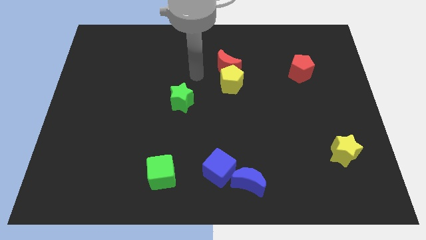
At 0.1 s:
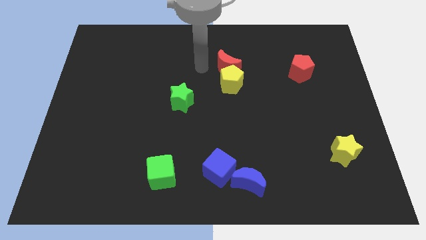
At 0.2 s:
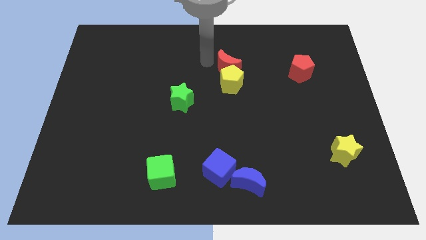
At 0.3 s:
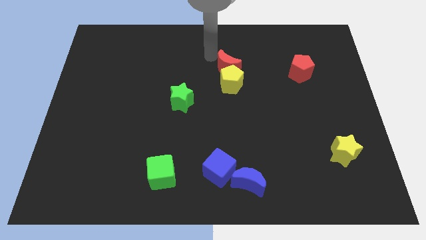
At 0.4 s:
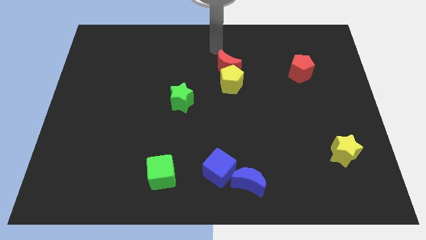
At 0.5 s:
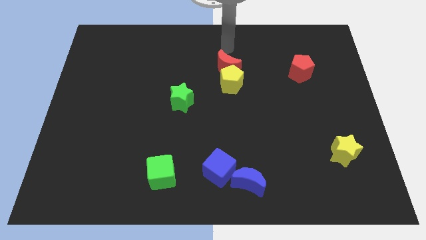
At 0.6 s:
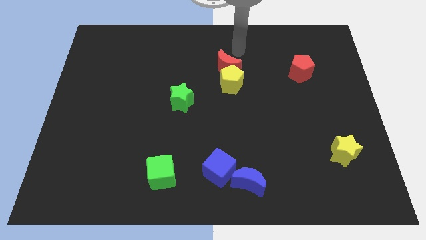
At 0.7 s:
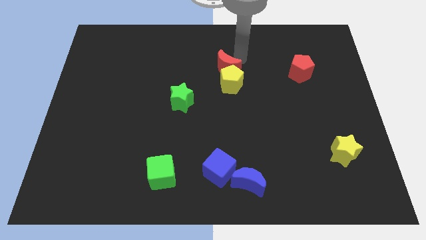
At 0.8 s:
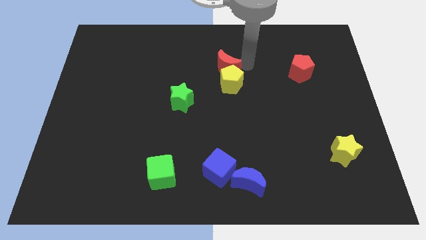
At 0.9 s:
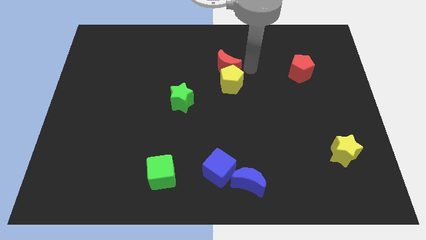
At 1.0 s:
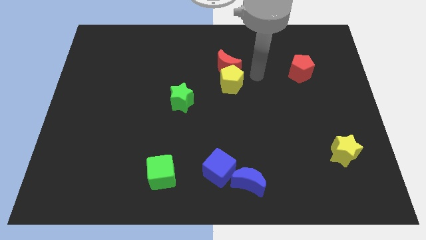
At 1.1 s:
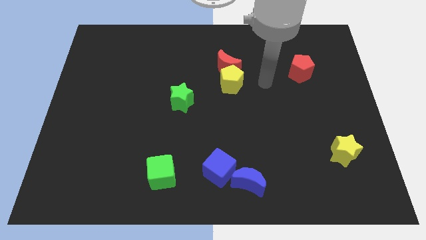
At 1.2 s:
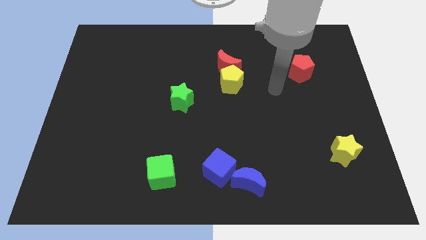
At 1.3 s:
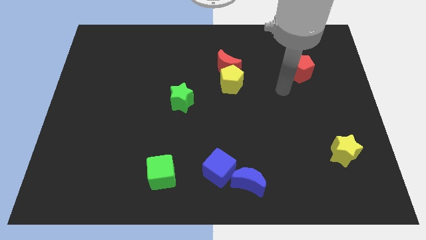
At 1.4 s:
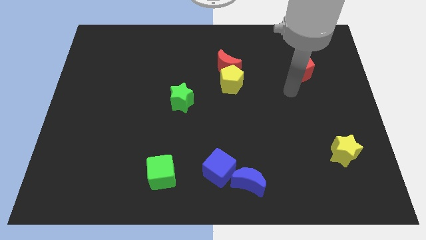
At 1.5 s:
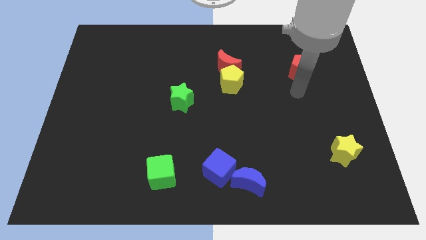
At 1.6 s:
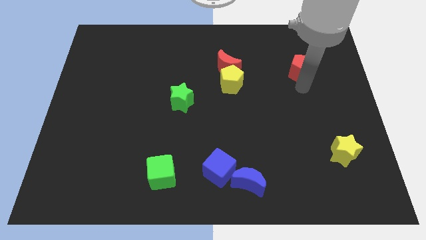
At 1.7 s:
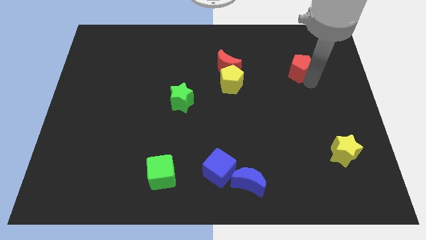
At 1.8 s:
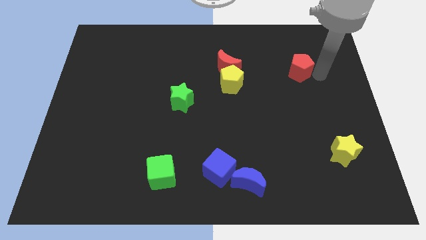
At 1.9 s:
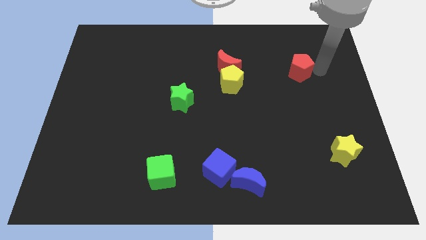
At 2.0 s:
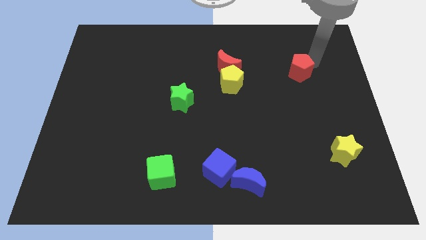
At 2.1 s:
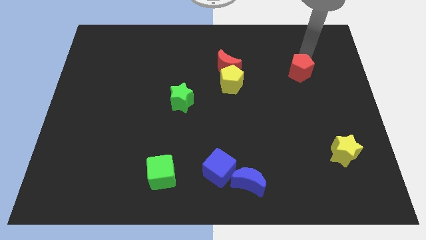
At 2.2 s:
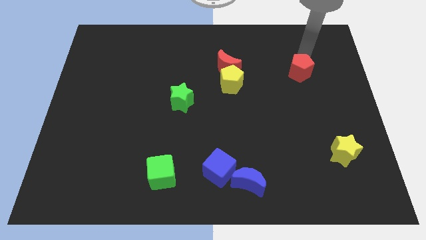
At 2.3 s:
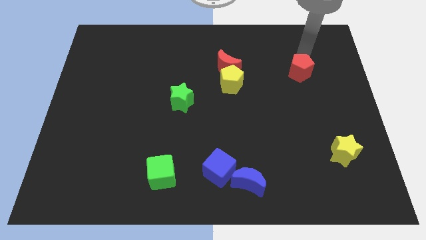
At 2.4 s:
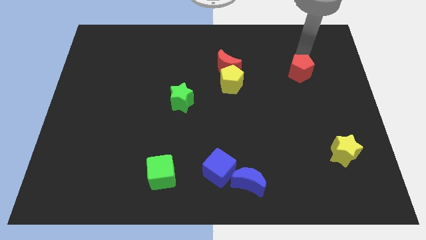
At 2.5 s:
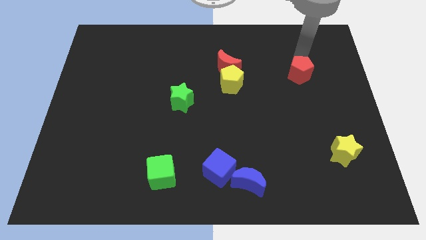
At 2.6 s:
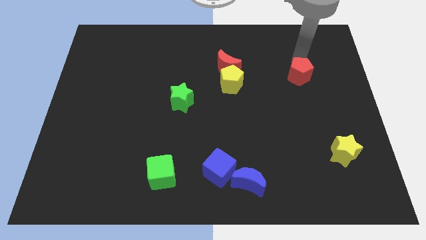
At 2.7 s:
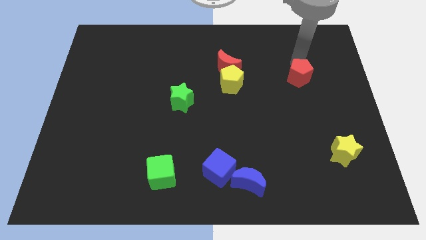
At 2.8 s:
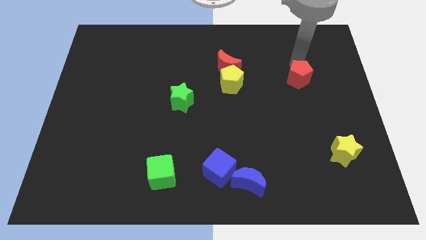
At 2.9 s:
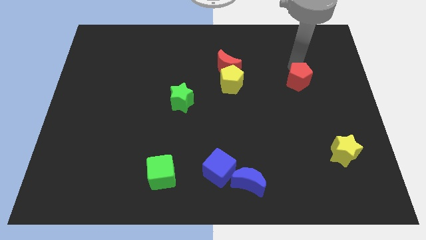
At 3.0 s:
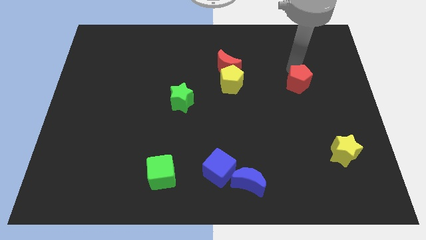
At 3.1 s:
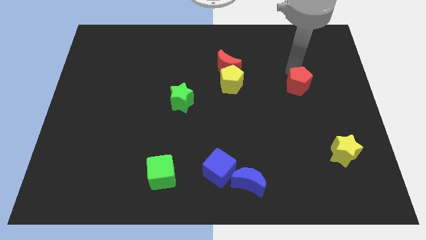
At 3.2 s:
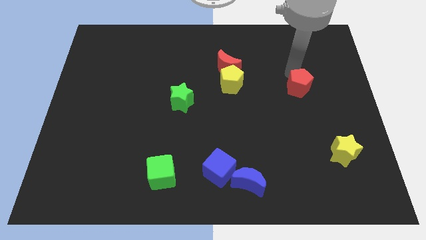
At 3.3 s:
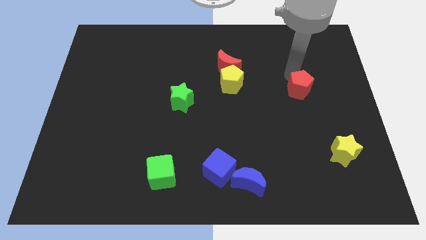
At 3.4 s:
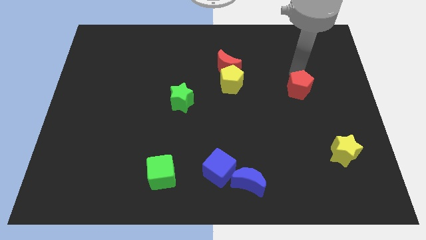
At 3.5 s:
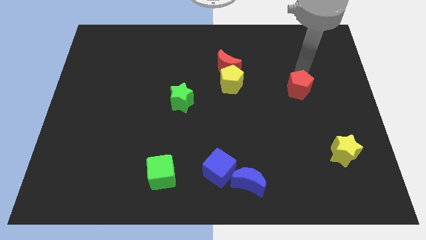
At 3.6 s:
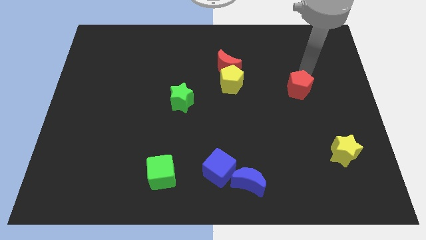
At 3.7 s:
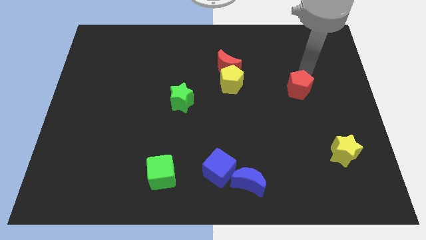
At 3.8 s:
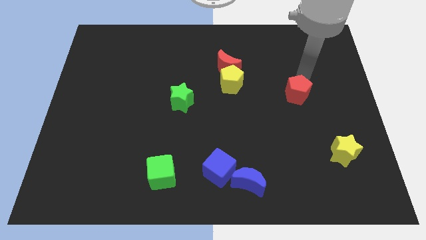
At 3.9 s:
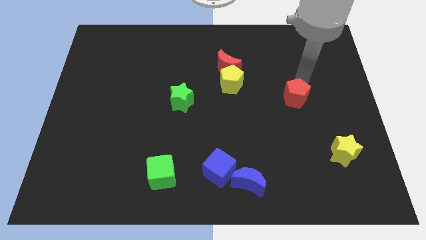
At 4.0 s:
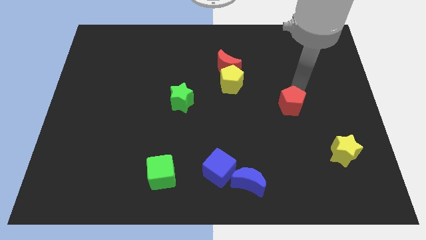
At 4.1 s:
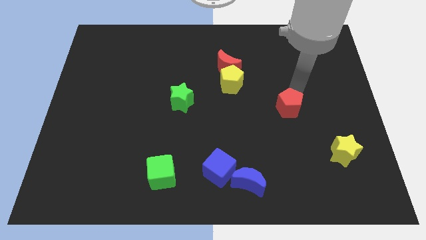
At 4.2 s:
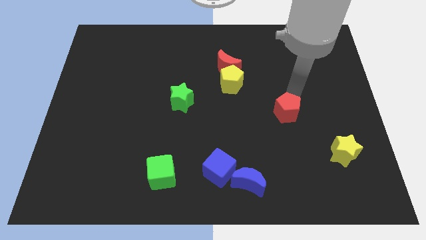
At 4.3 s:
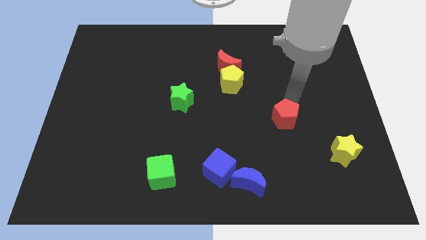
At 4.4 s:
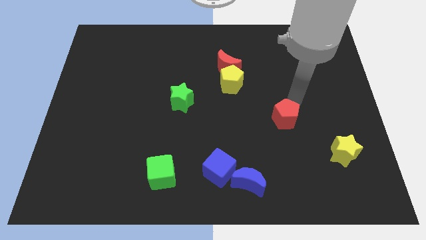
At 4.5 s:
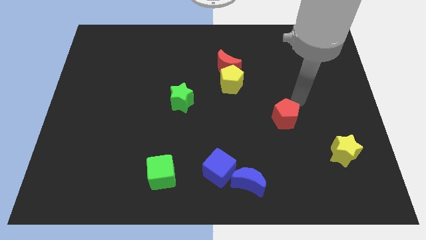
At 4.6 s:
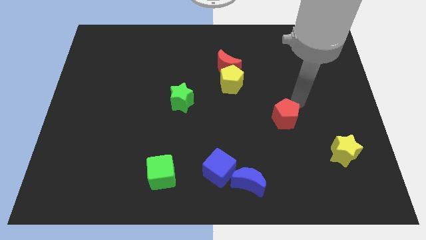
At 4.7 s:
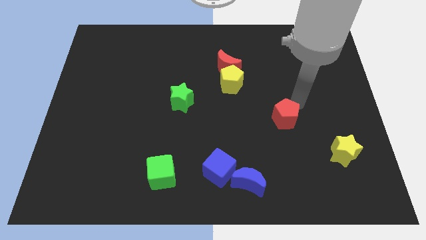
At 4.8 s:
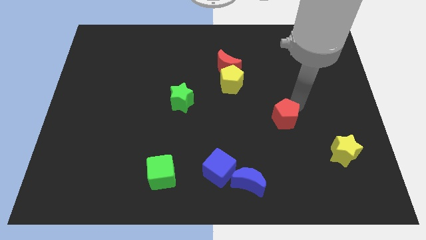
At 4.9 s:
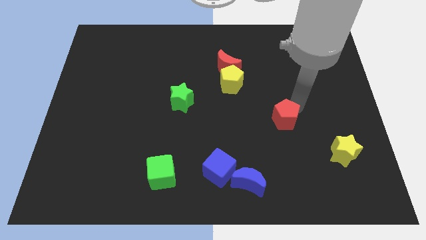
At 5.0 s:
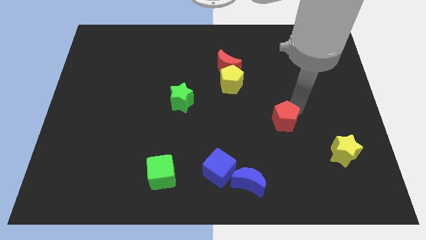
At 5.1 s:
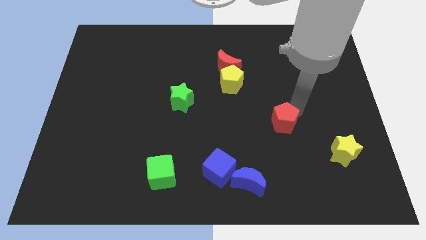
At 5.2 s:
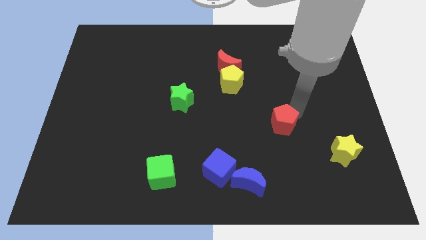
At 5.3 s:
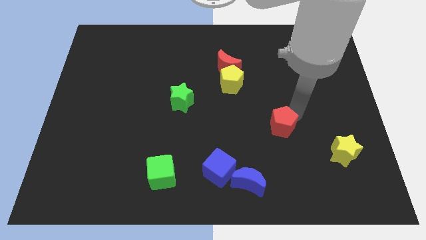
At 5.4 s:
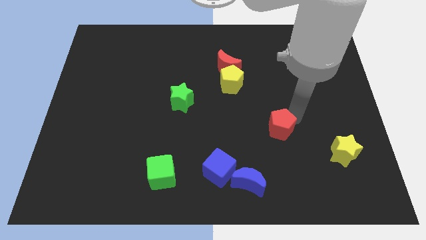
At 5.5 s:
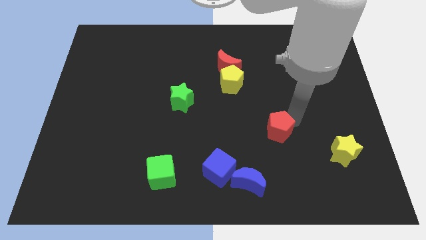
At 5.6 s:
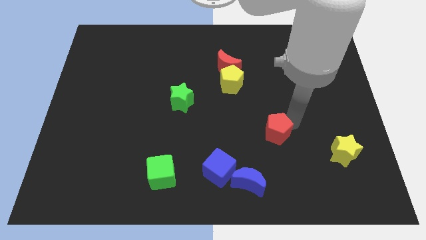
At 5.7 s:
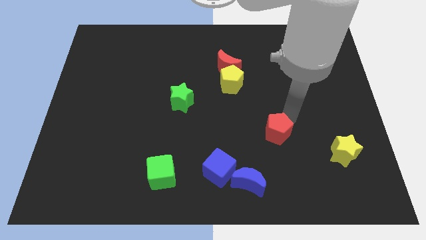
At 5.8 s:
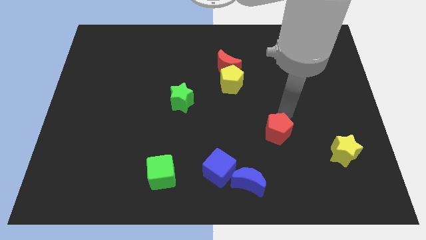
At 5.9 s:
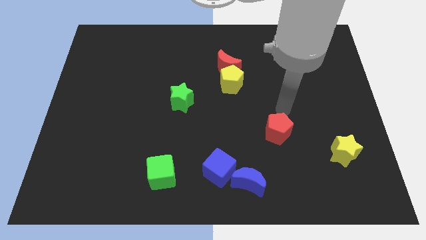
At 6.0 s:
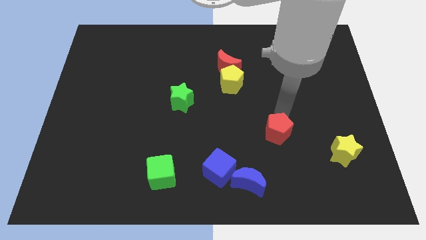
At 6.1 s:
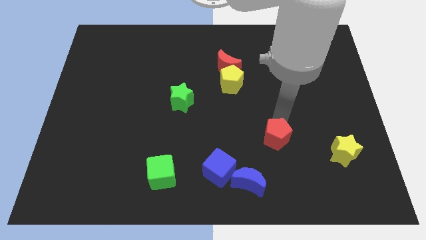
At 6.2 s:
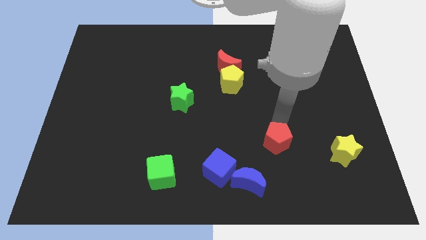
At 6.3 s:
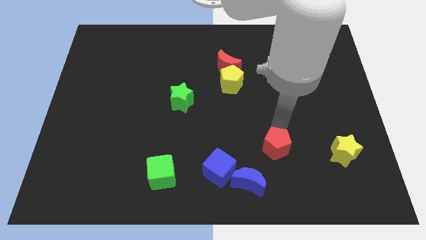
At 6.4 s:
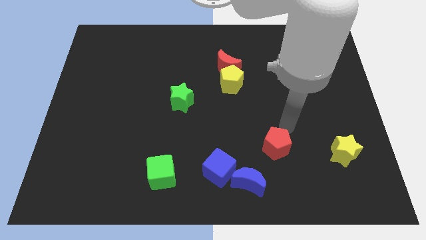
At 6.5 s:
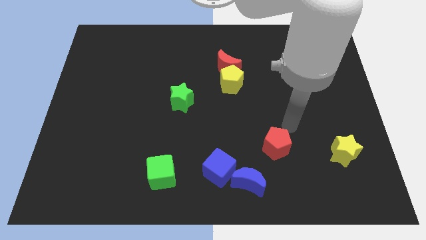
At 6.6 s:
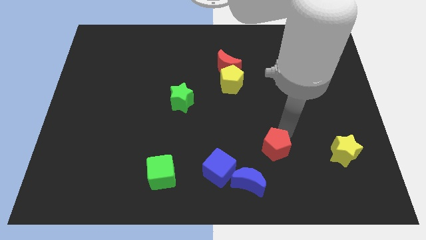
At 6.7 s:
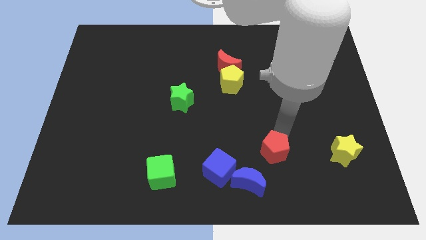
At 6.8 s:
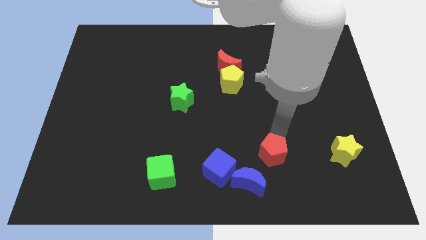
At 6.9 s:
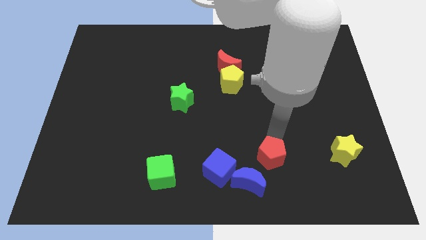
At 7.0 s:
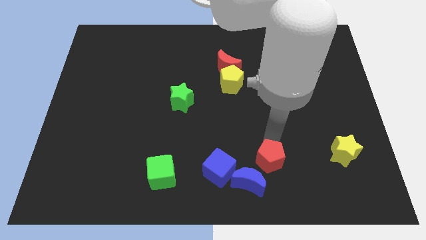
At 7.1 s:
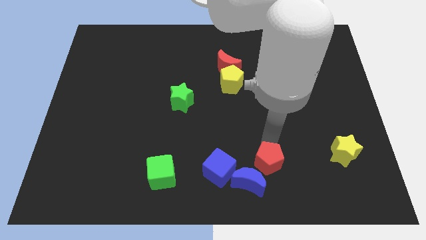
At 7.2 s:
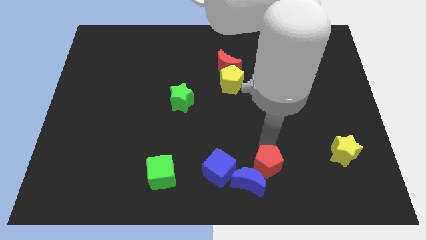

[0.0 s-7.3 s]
move the red pentagon to the blue moon

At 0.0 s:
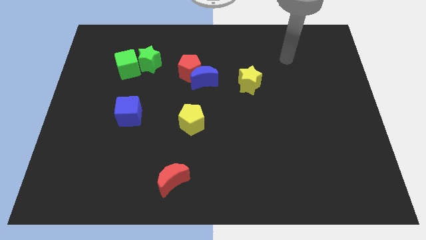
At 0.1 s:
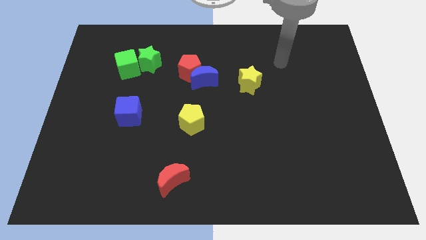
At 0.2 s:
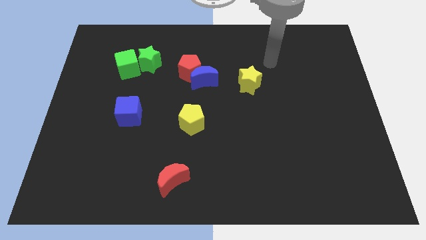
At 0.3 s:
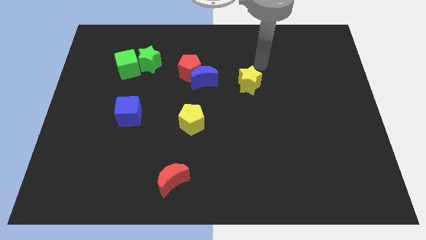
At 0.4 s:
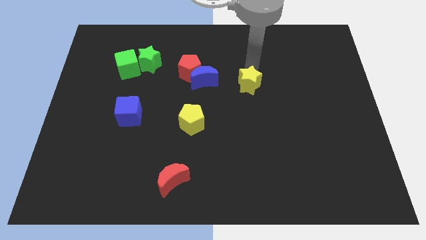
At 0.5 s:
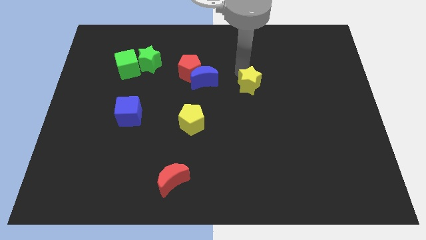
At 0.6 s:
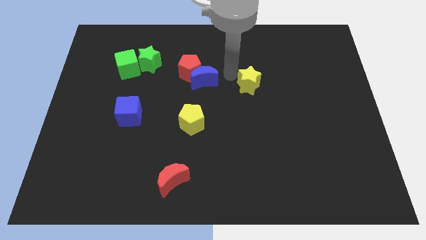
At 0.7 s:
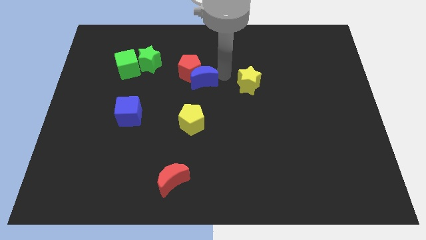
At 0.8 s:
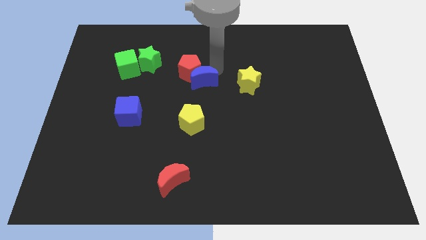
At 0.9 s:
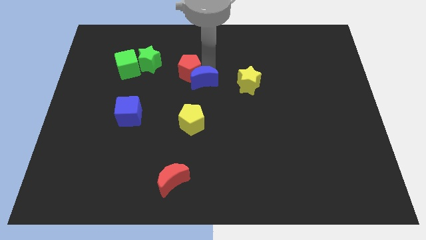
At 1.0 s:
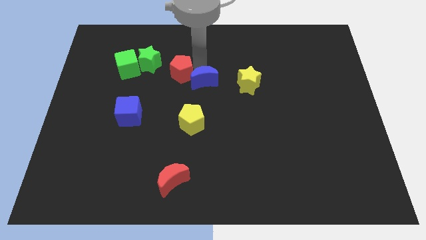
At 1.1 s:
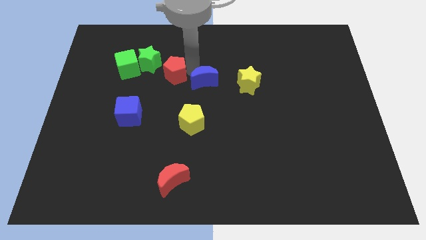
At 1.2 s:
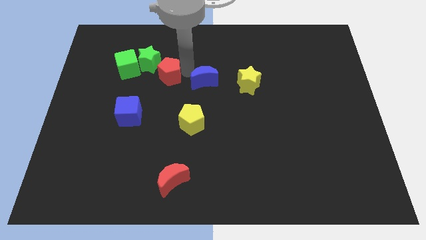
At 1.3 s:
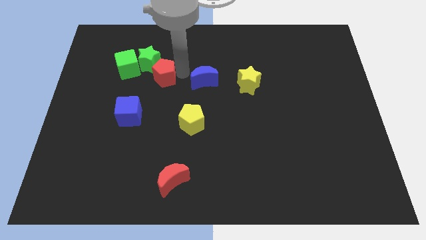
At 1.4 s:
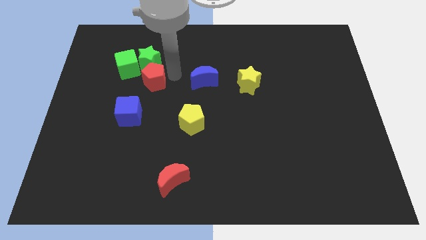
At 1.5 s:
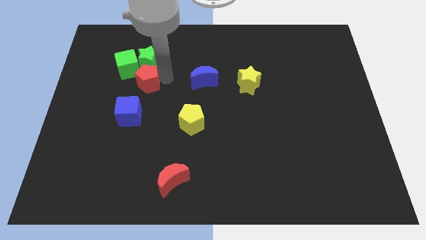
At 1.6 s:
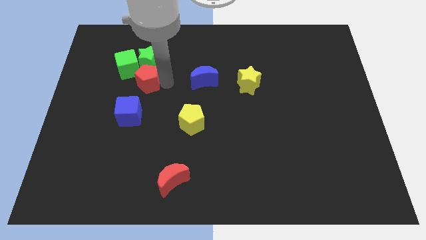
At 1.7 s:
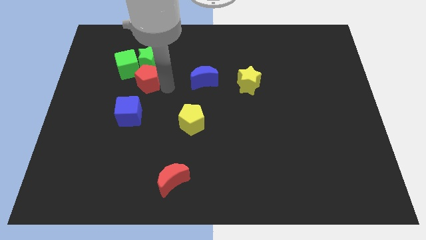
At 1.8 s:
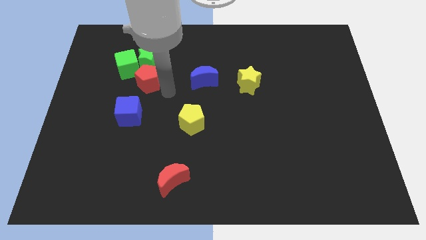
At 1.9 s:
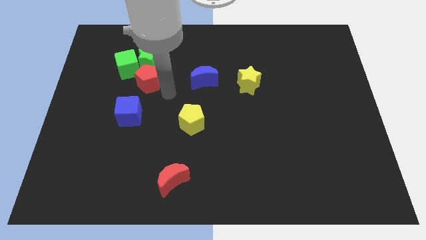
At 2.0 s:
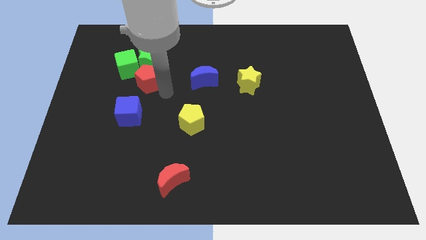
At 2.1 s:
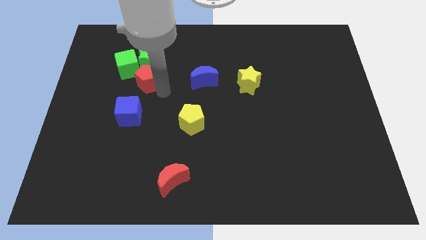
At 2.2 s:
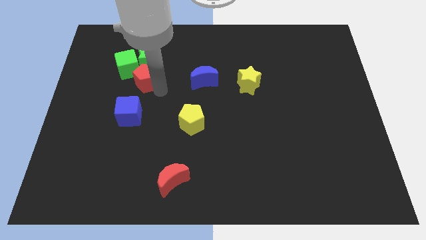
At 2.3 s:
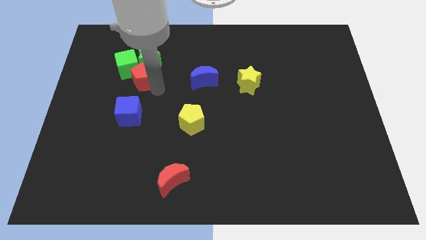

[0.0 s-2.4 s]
put the red pentagon to the green cube
